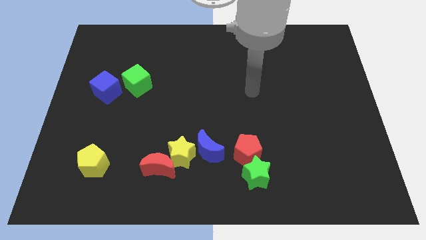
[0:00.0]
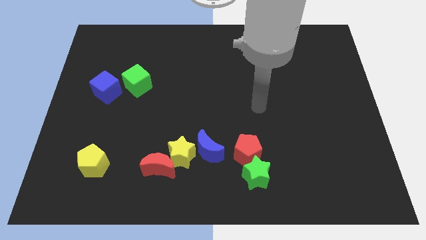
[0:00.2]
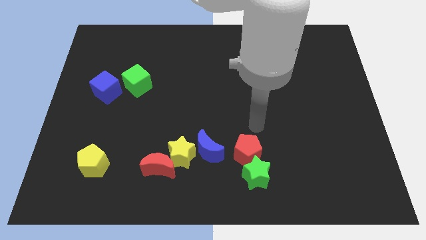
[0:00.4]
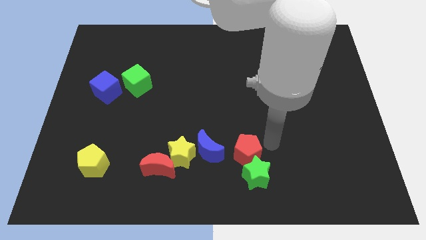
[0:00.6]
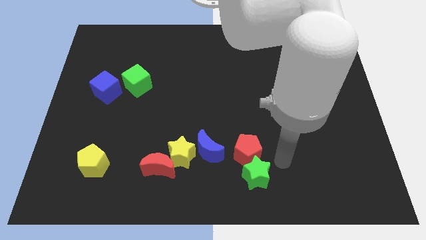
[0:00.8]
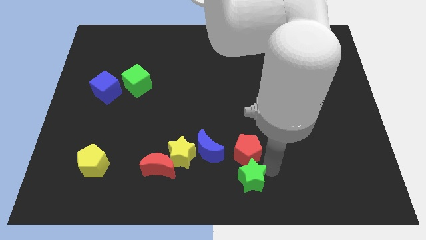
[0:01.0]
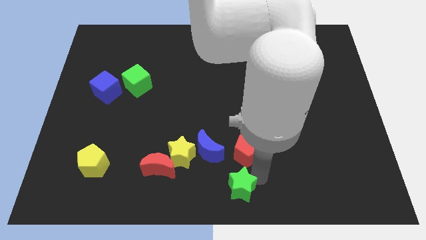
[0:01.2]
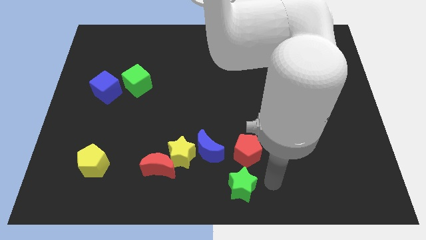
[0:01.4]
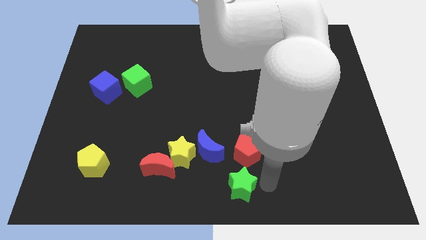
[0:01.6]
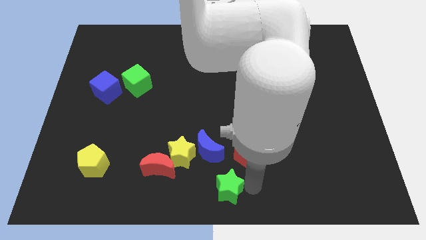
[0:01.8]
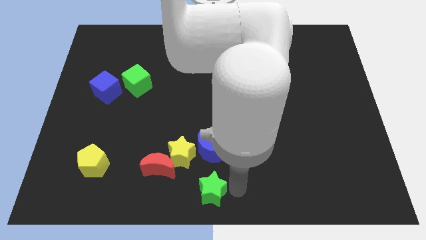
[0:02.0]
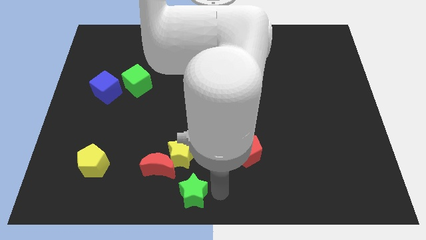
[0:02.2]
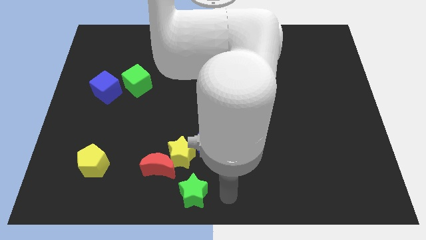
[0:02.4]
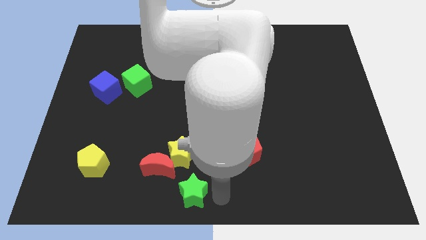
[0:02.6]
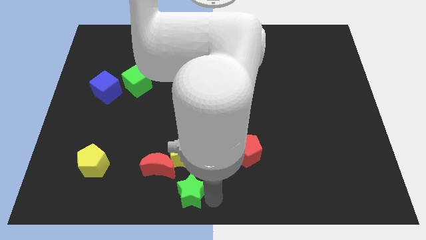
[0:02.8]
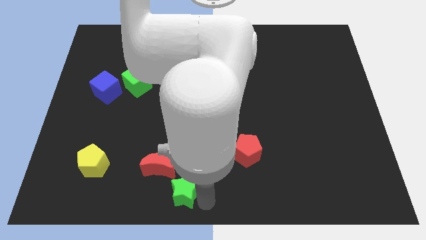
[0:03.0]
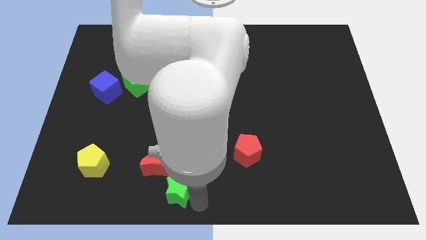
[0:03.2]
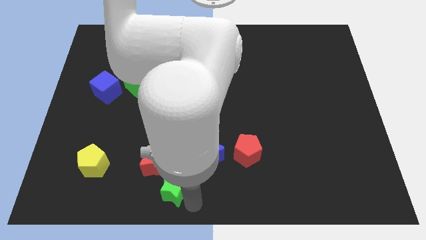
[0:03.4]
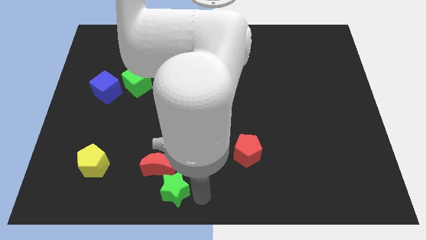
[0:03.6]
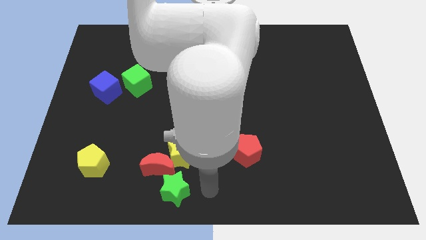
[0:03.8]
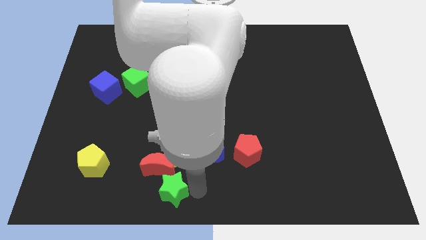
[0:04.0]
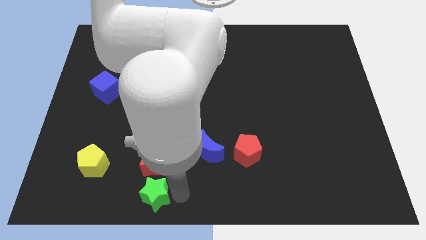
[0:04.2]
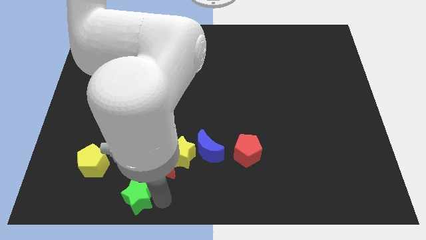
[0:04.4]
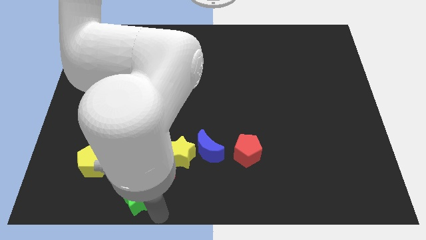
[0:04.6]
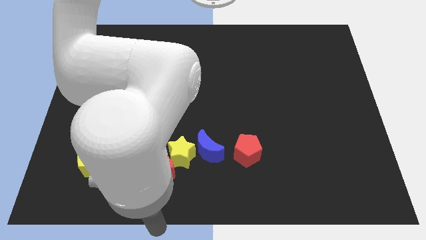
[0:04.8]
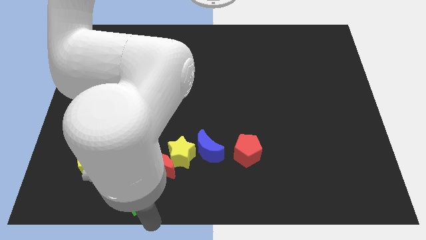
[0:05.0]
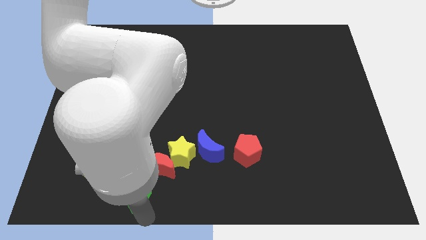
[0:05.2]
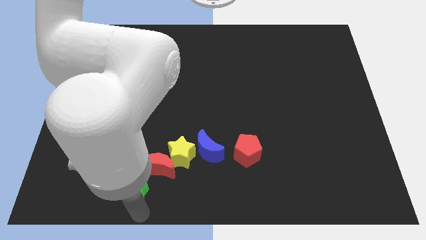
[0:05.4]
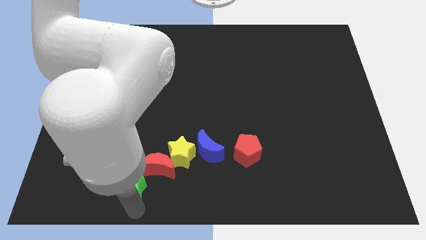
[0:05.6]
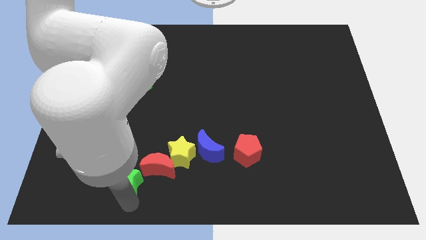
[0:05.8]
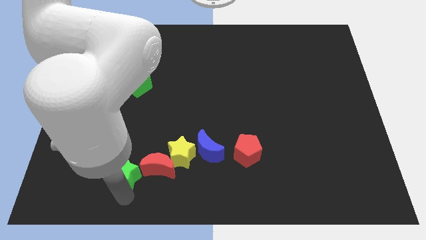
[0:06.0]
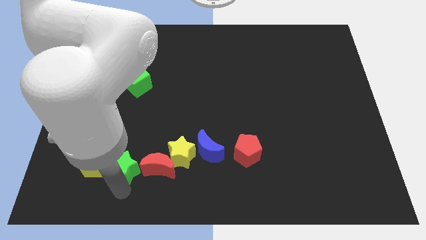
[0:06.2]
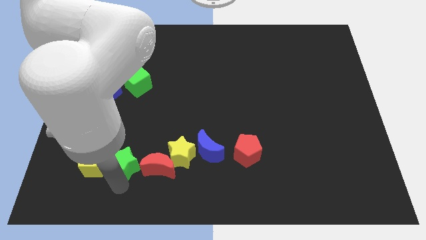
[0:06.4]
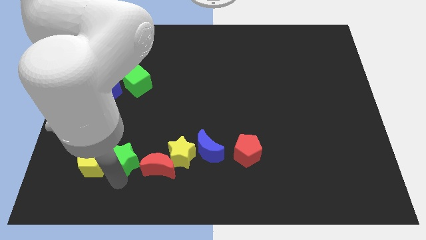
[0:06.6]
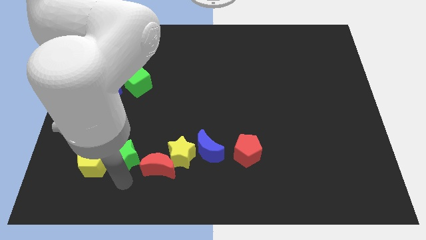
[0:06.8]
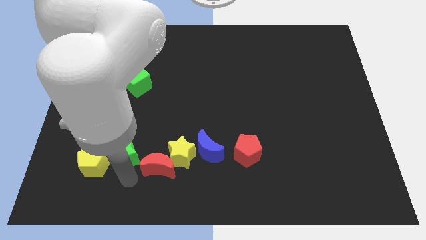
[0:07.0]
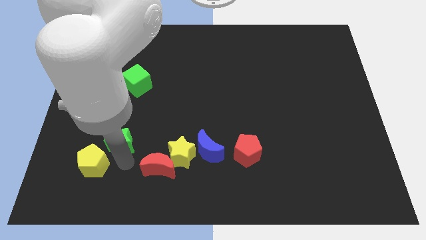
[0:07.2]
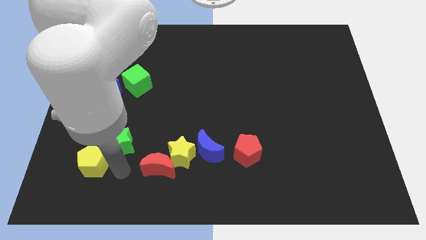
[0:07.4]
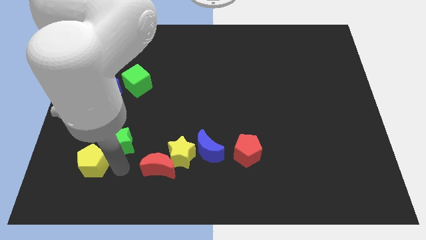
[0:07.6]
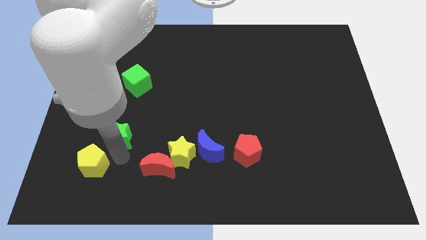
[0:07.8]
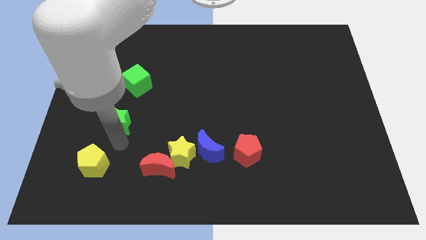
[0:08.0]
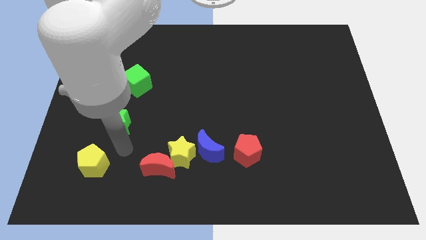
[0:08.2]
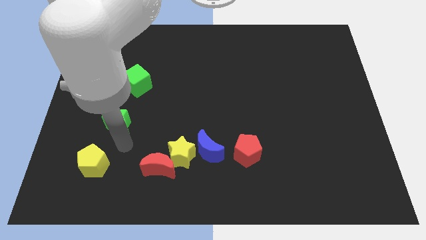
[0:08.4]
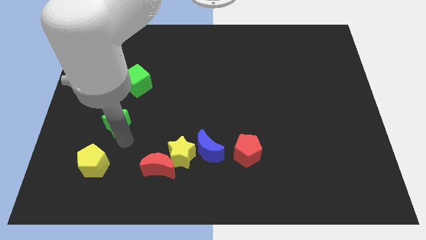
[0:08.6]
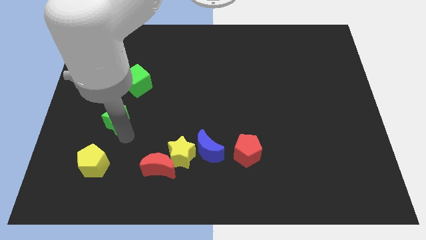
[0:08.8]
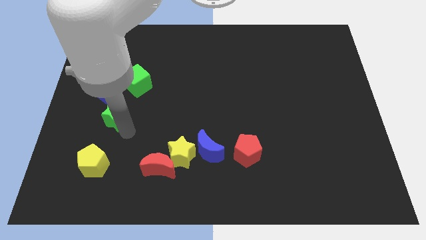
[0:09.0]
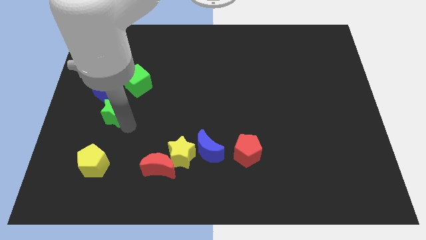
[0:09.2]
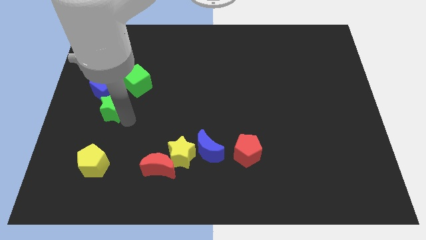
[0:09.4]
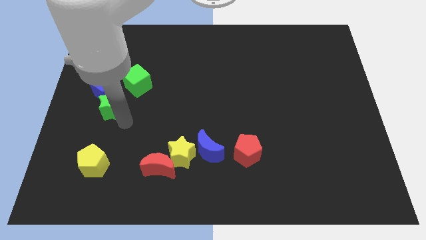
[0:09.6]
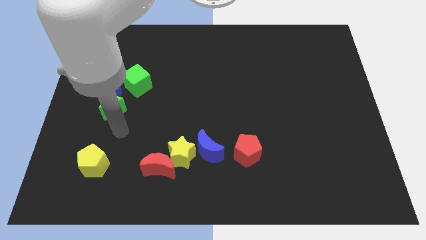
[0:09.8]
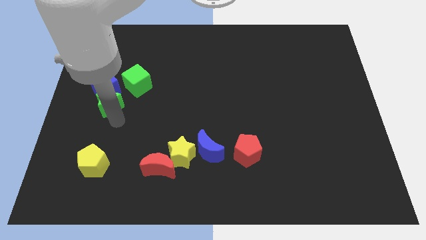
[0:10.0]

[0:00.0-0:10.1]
move the green star close to the blue cube

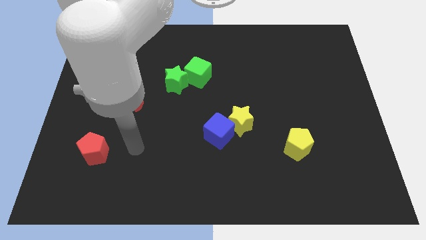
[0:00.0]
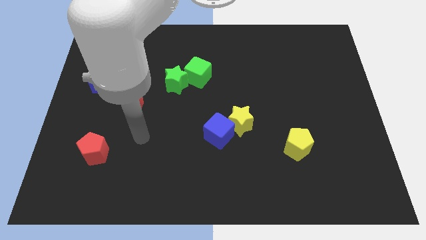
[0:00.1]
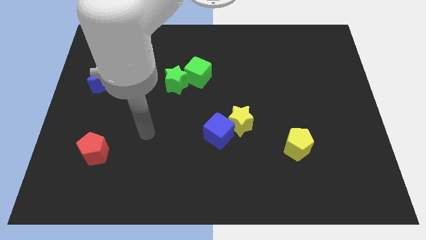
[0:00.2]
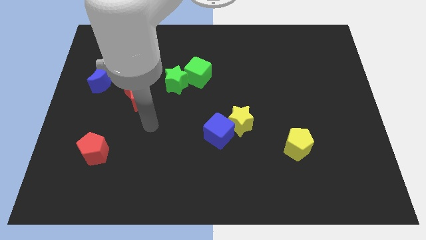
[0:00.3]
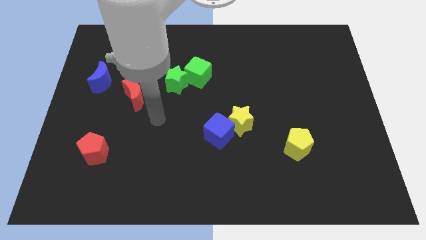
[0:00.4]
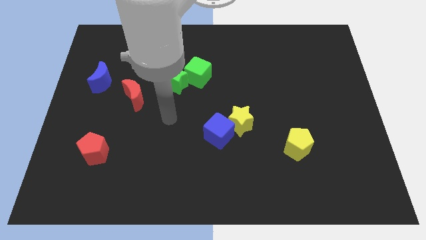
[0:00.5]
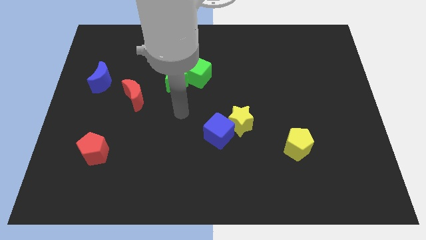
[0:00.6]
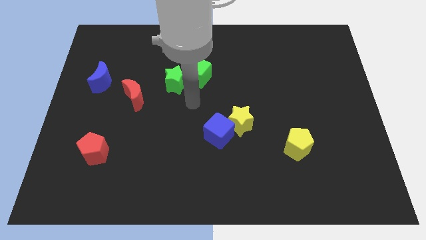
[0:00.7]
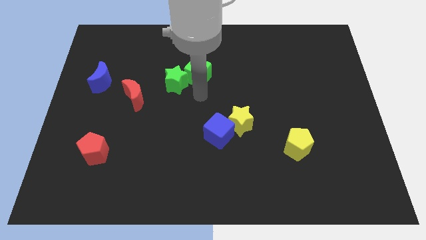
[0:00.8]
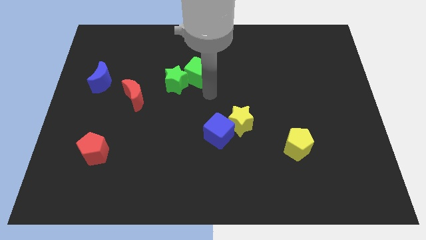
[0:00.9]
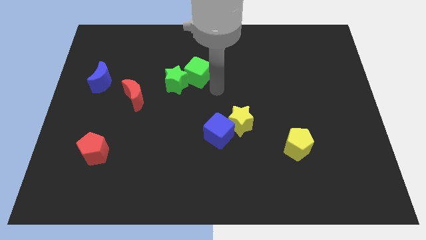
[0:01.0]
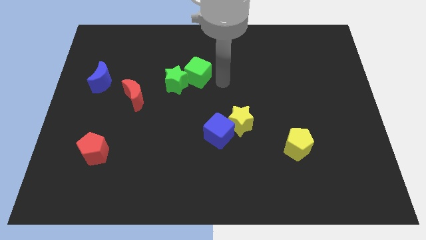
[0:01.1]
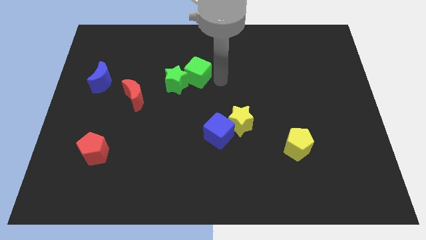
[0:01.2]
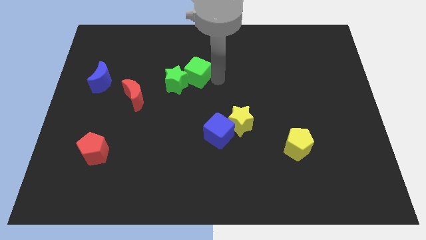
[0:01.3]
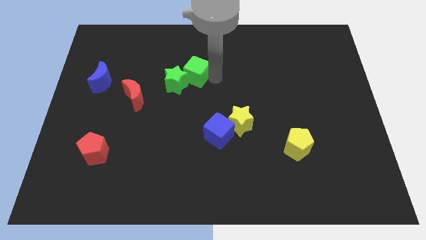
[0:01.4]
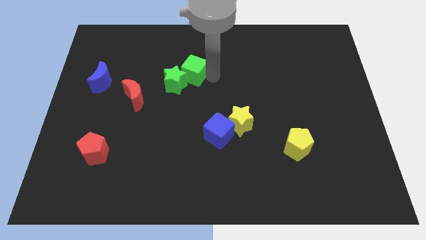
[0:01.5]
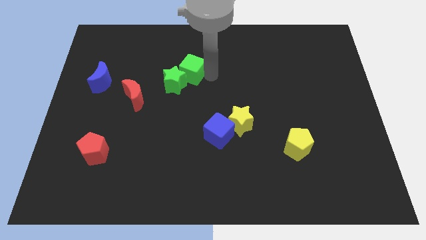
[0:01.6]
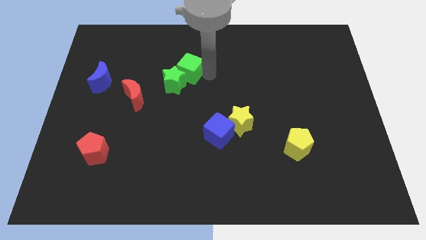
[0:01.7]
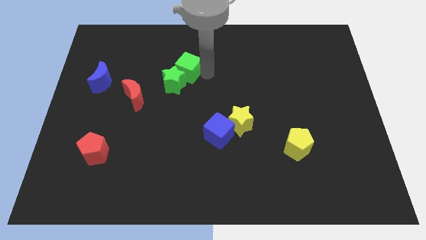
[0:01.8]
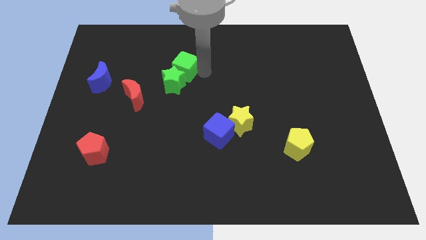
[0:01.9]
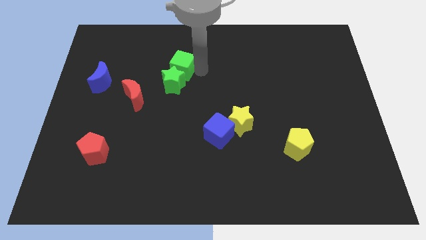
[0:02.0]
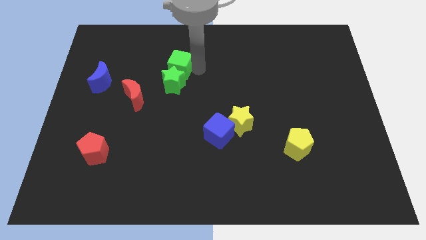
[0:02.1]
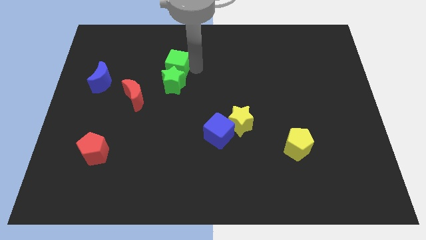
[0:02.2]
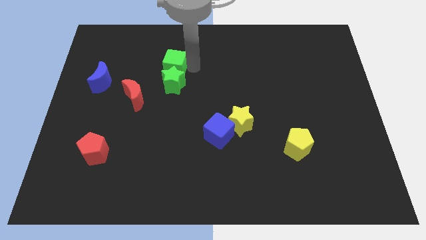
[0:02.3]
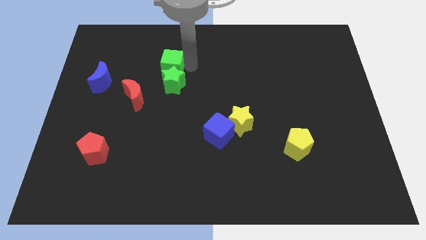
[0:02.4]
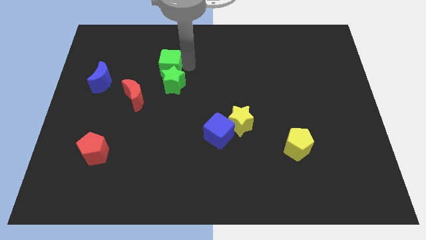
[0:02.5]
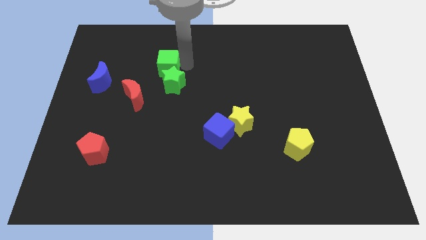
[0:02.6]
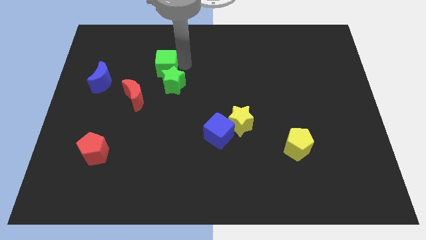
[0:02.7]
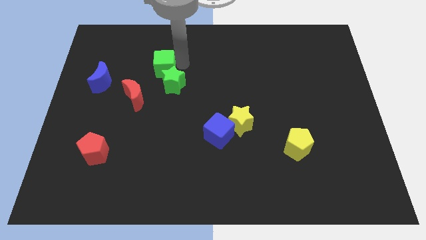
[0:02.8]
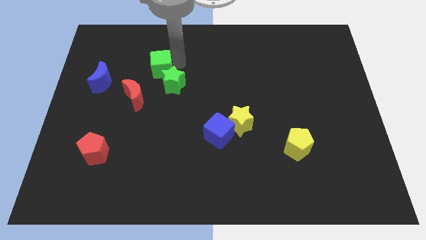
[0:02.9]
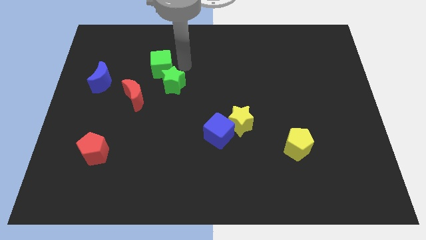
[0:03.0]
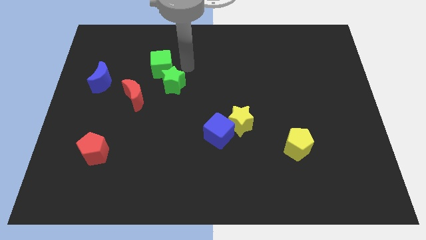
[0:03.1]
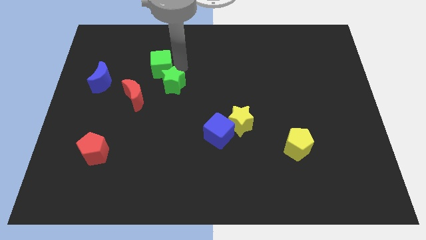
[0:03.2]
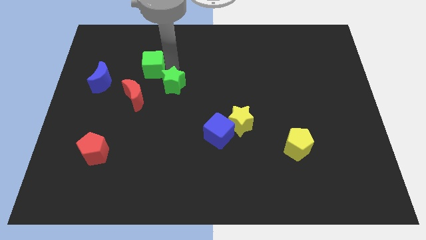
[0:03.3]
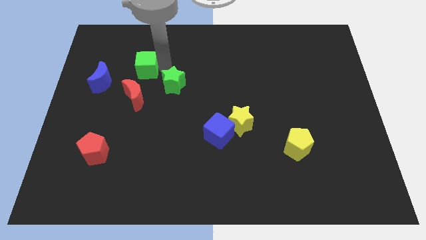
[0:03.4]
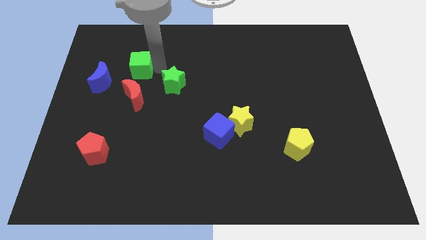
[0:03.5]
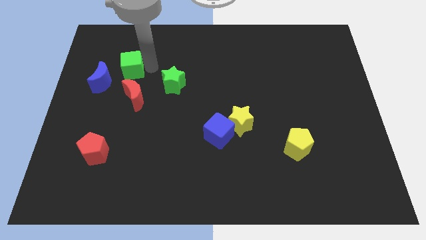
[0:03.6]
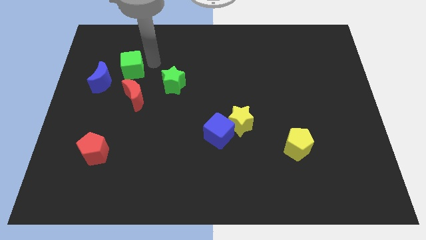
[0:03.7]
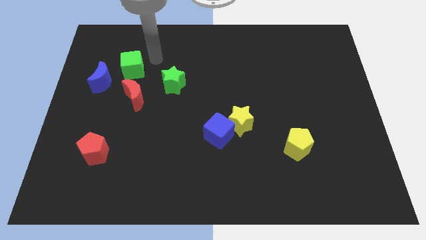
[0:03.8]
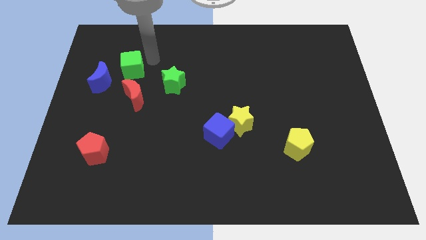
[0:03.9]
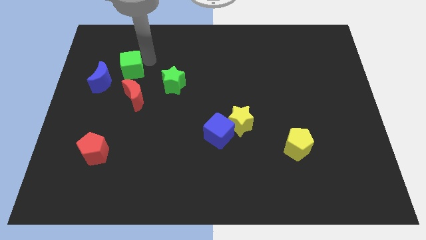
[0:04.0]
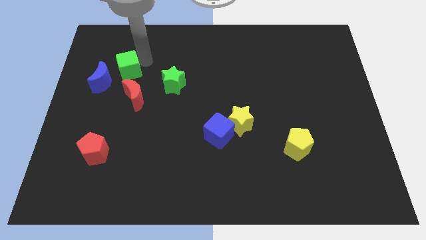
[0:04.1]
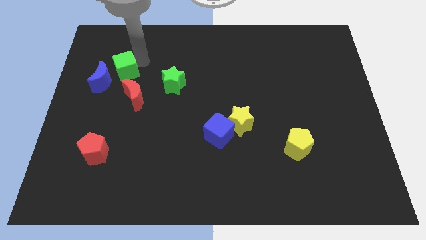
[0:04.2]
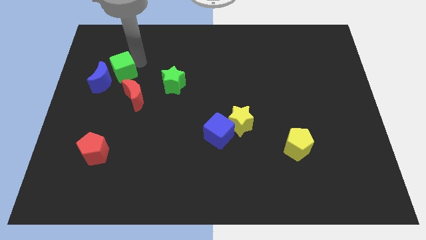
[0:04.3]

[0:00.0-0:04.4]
push the green cube close to the blue moon
